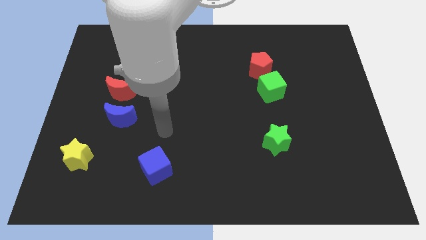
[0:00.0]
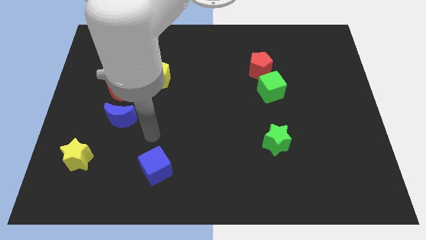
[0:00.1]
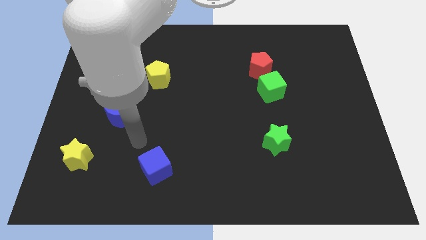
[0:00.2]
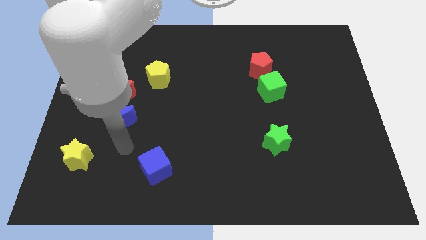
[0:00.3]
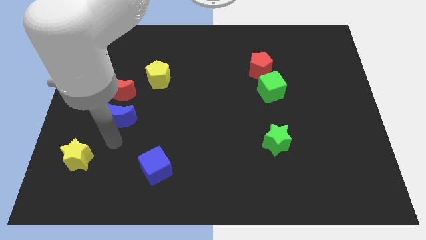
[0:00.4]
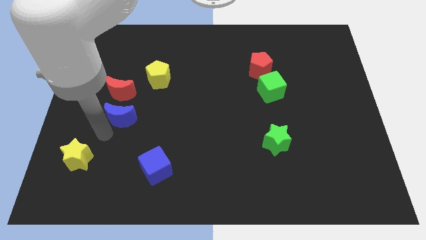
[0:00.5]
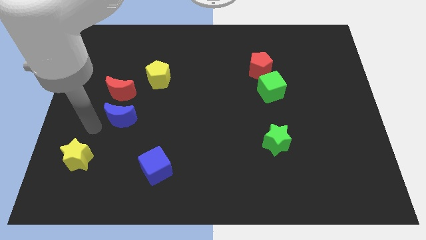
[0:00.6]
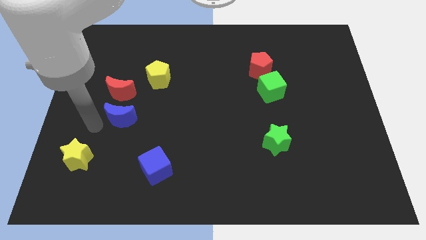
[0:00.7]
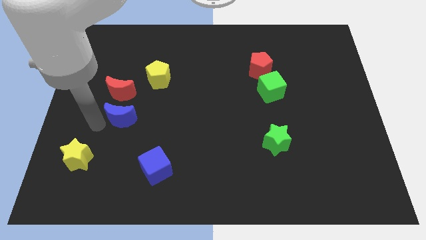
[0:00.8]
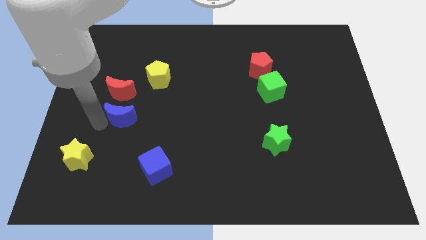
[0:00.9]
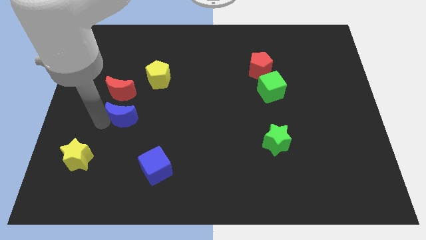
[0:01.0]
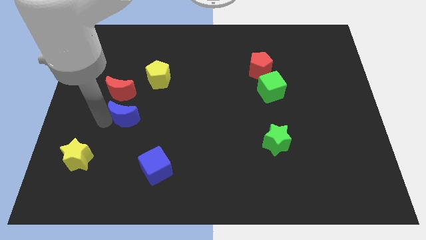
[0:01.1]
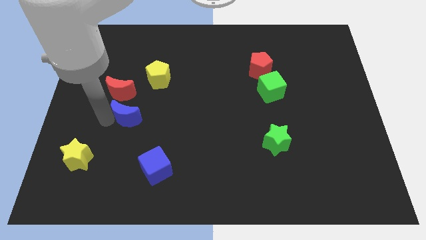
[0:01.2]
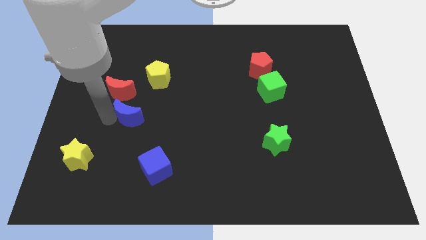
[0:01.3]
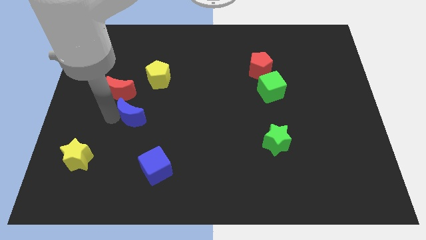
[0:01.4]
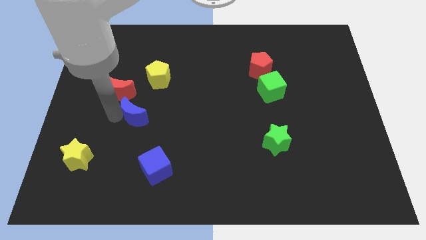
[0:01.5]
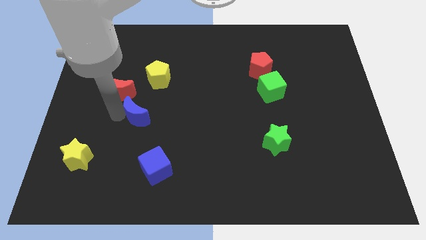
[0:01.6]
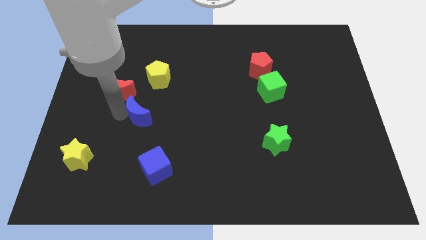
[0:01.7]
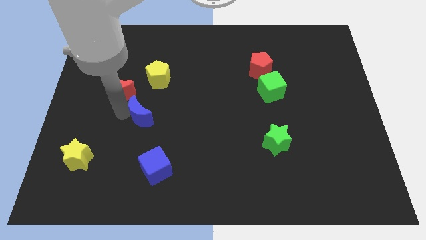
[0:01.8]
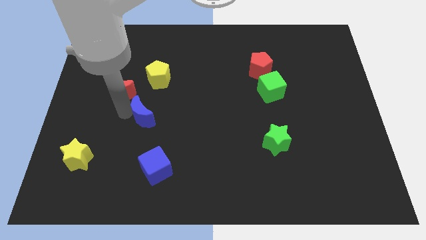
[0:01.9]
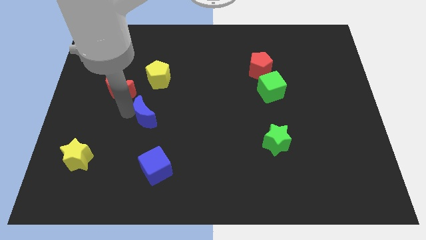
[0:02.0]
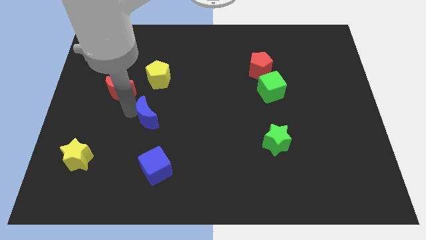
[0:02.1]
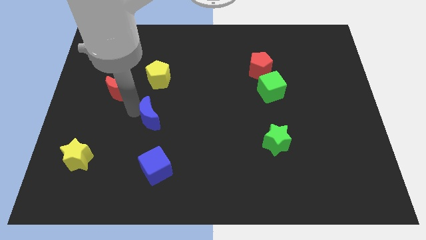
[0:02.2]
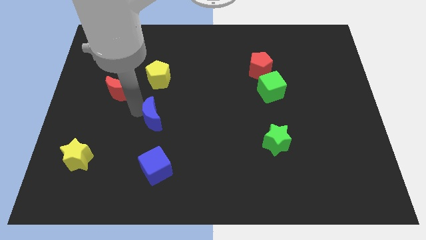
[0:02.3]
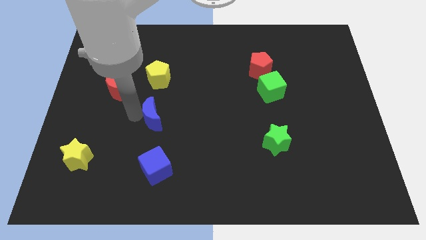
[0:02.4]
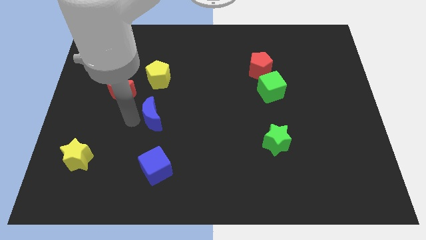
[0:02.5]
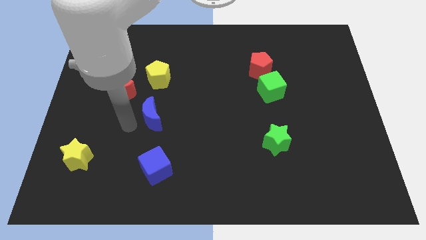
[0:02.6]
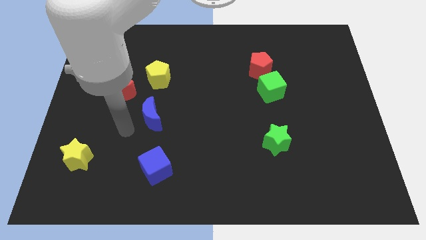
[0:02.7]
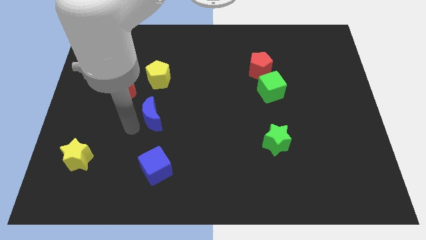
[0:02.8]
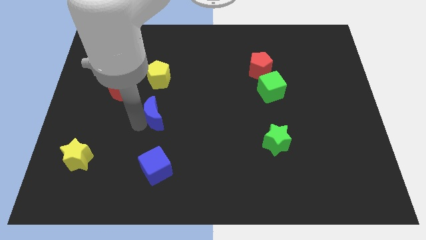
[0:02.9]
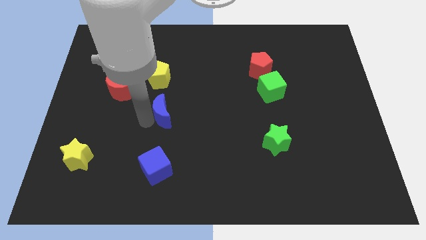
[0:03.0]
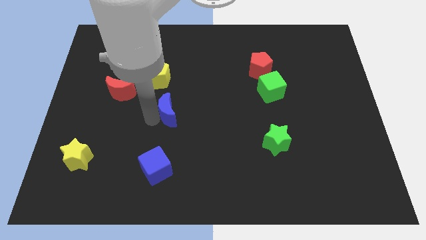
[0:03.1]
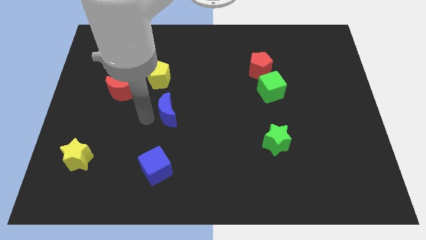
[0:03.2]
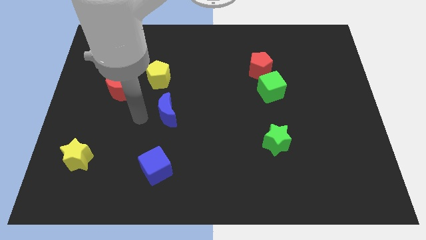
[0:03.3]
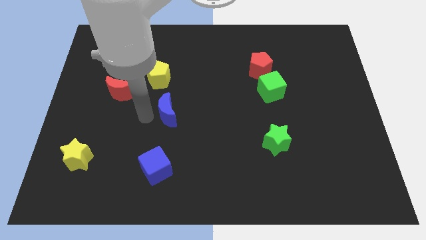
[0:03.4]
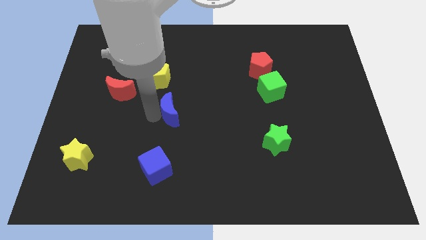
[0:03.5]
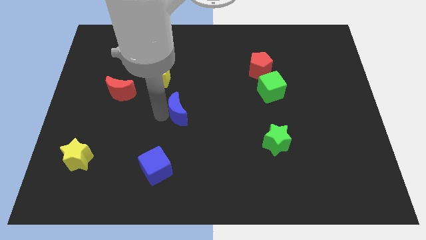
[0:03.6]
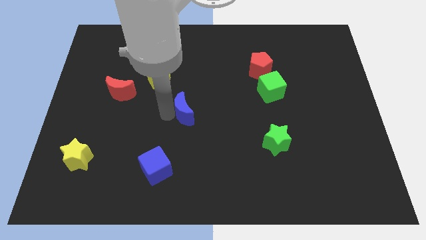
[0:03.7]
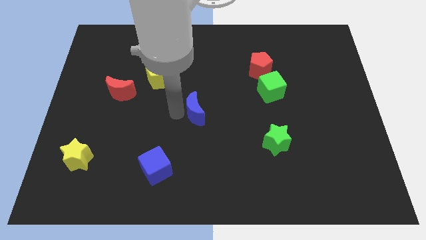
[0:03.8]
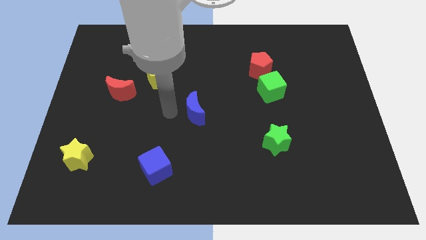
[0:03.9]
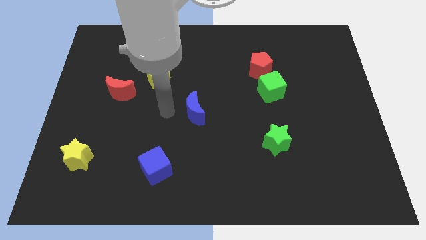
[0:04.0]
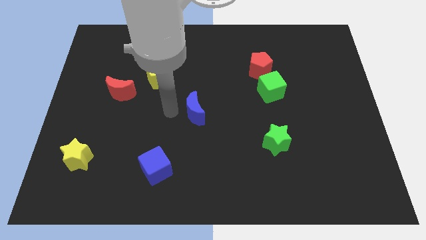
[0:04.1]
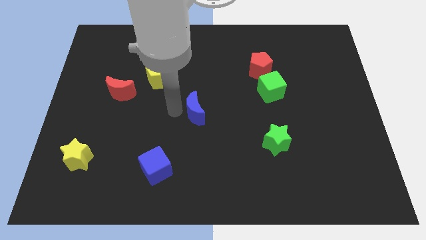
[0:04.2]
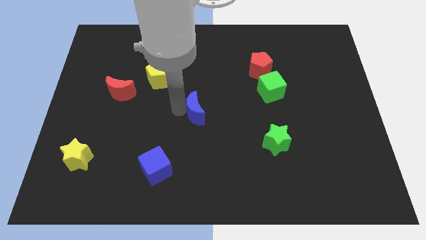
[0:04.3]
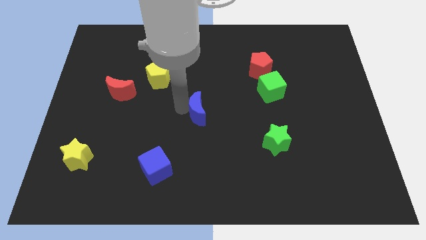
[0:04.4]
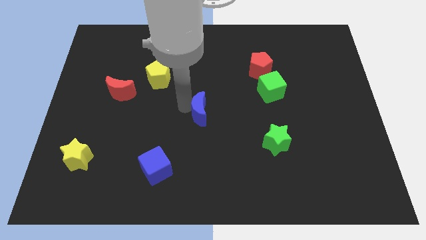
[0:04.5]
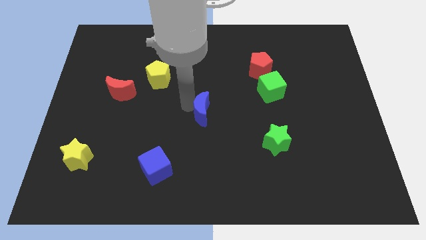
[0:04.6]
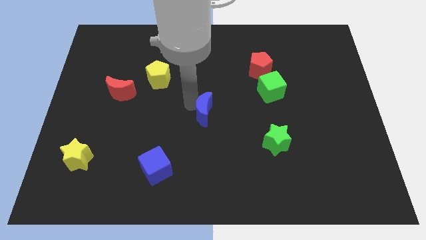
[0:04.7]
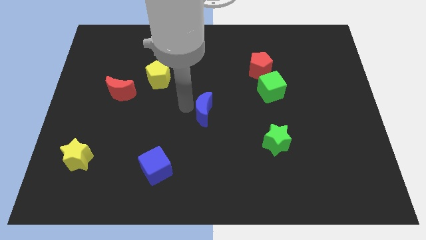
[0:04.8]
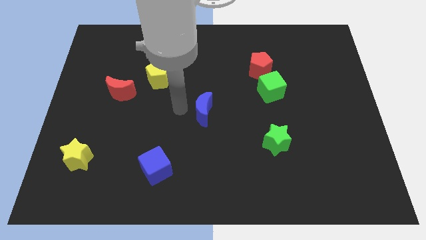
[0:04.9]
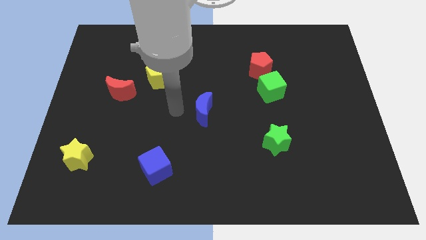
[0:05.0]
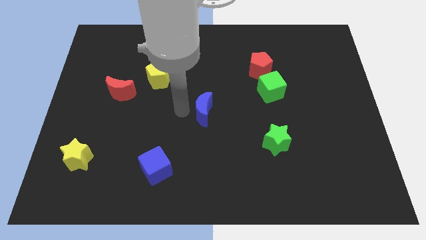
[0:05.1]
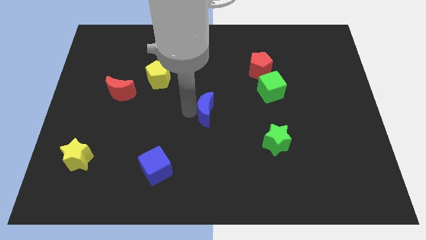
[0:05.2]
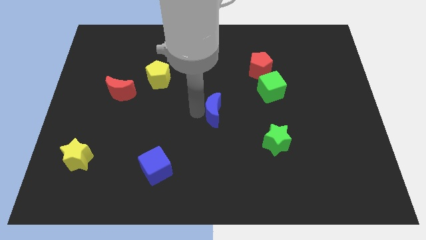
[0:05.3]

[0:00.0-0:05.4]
move the blue moon to the right

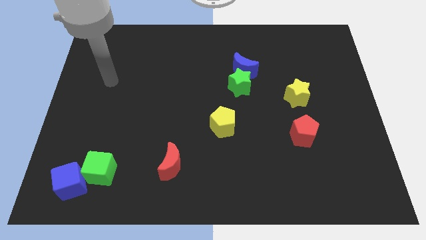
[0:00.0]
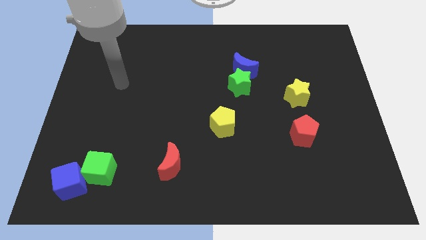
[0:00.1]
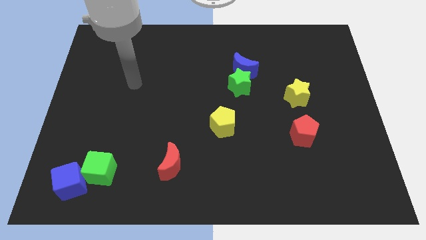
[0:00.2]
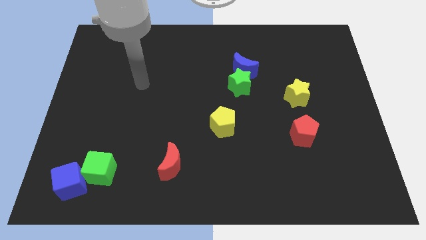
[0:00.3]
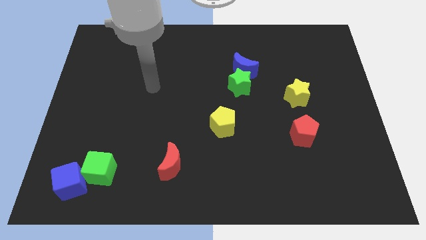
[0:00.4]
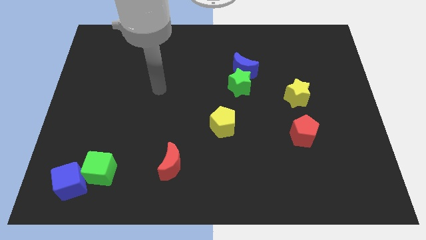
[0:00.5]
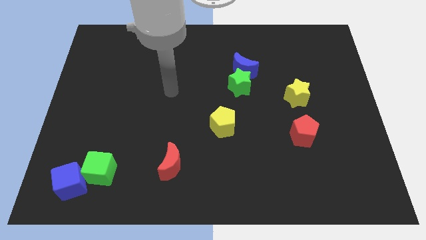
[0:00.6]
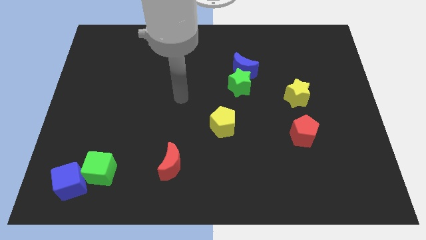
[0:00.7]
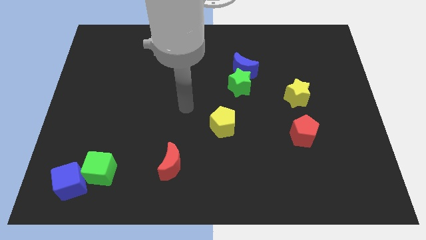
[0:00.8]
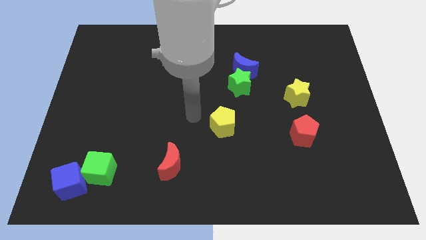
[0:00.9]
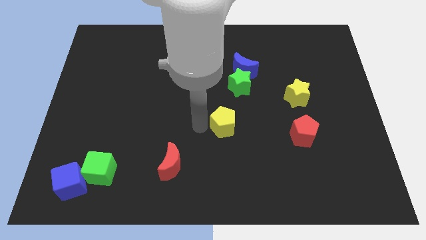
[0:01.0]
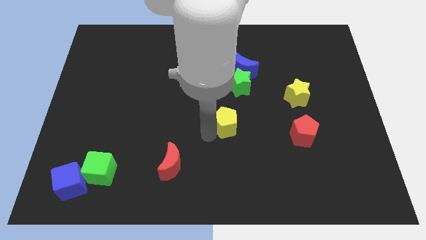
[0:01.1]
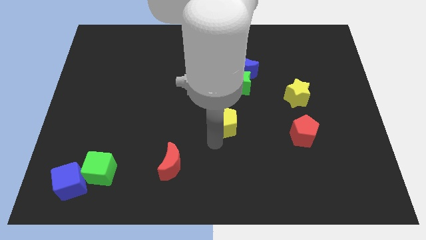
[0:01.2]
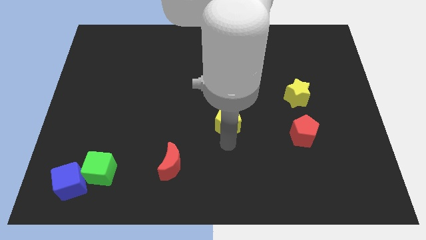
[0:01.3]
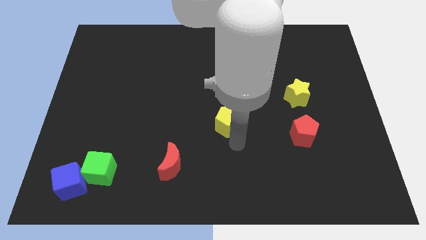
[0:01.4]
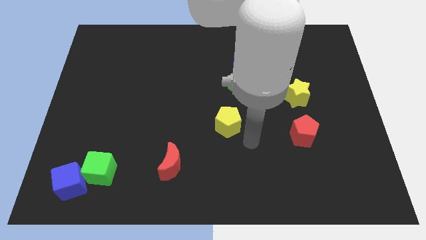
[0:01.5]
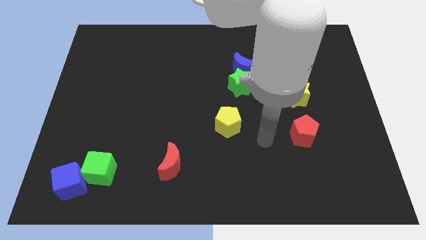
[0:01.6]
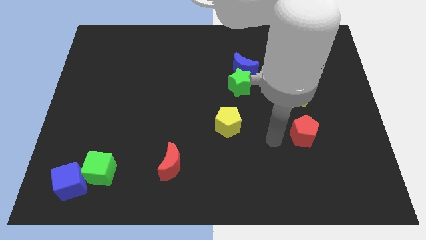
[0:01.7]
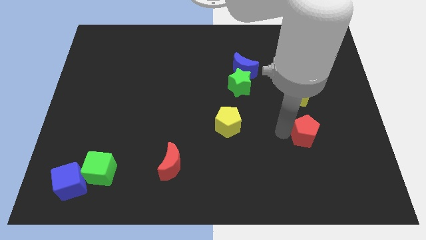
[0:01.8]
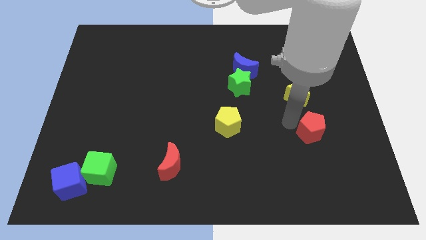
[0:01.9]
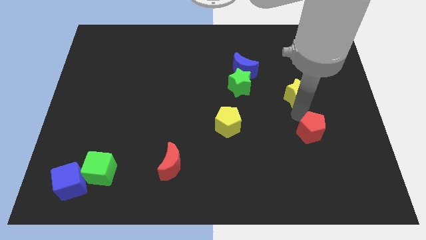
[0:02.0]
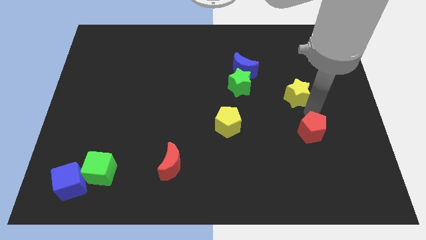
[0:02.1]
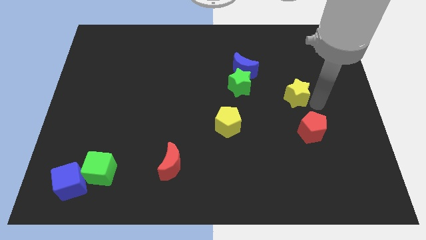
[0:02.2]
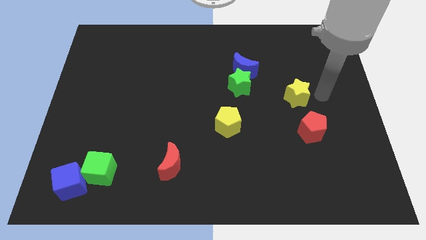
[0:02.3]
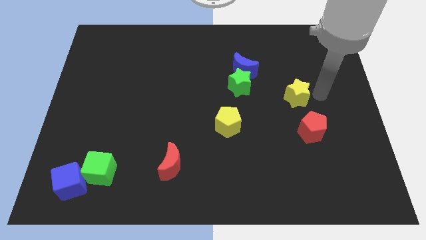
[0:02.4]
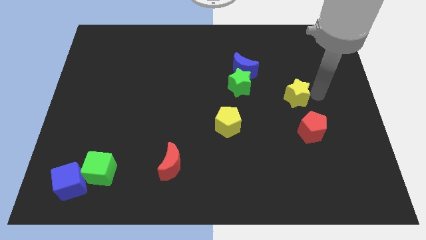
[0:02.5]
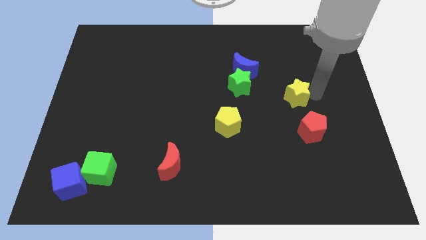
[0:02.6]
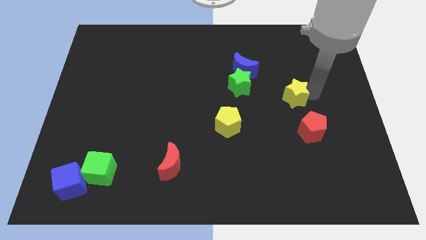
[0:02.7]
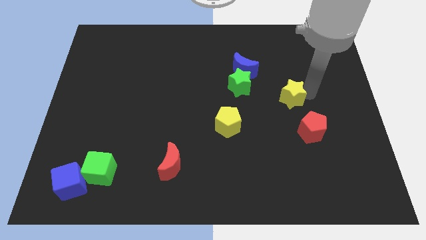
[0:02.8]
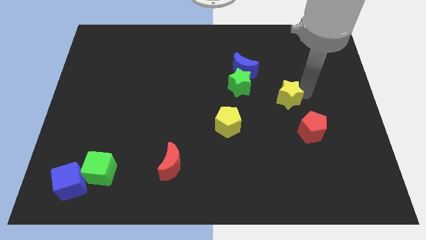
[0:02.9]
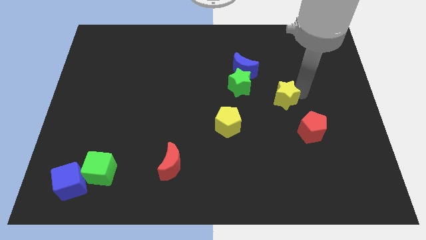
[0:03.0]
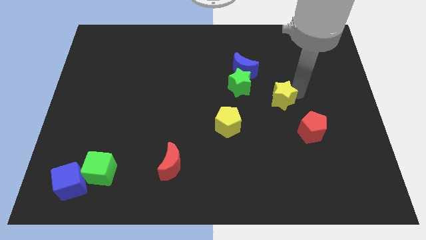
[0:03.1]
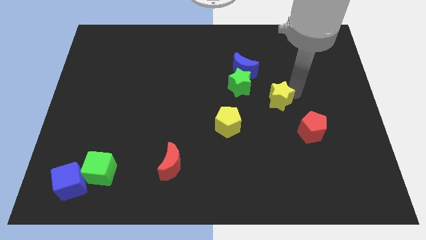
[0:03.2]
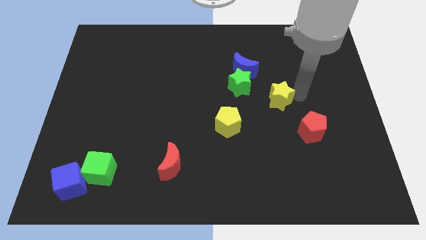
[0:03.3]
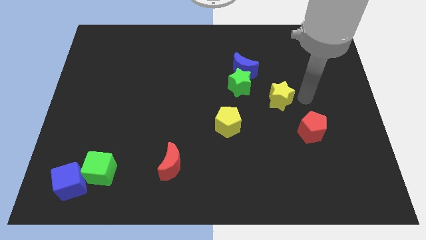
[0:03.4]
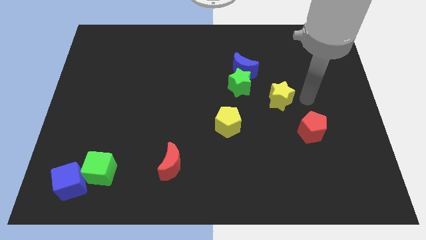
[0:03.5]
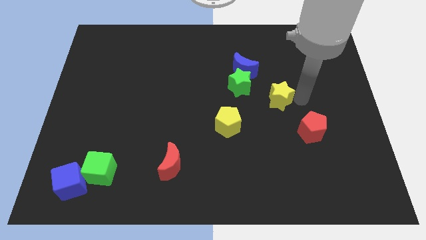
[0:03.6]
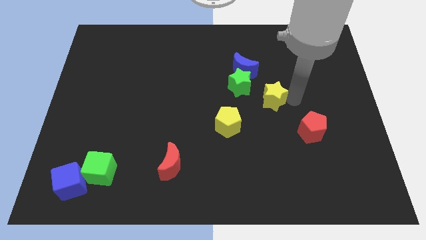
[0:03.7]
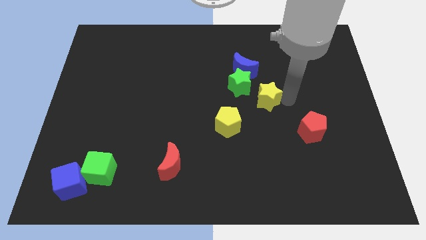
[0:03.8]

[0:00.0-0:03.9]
push the yellow star left a little bit
